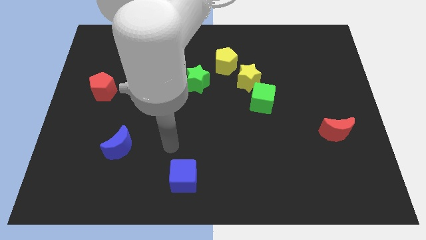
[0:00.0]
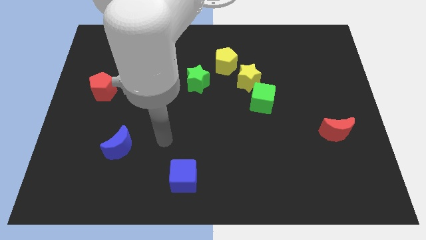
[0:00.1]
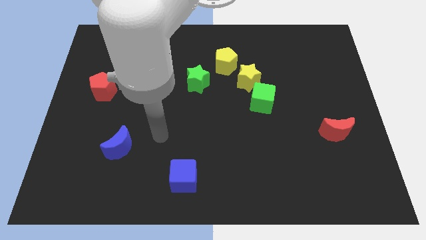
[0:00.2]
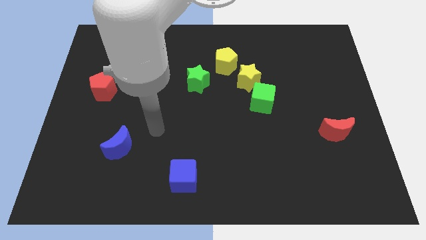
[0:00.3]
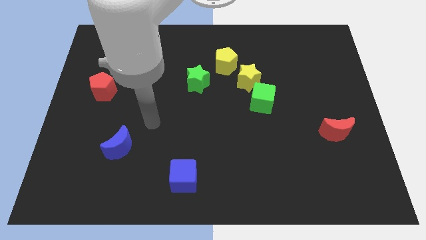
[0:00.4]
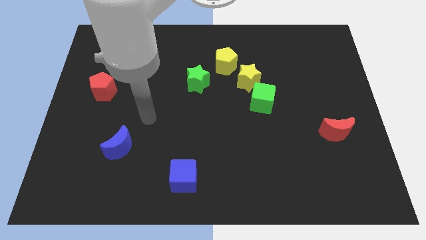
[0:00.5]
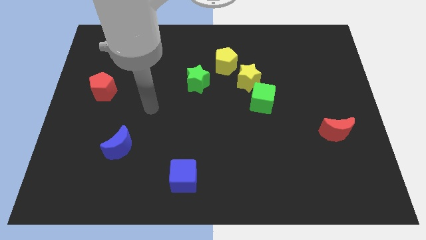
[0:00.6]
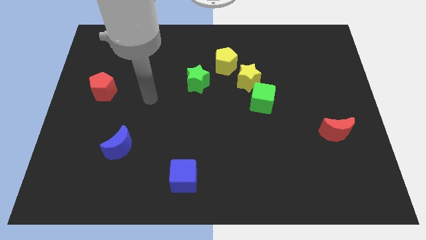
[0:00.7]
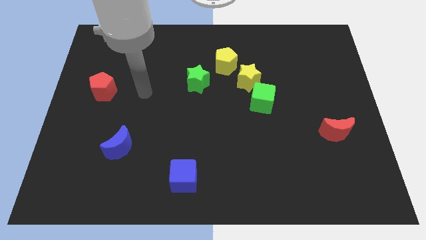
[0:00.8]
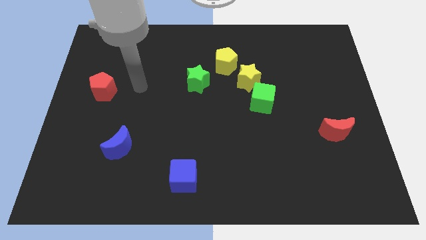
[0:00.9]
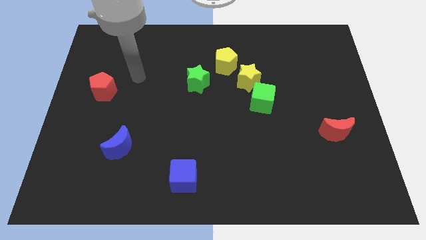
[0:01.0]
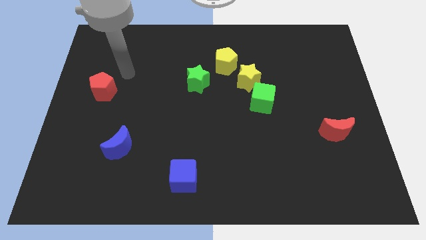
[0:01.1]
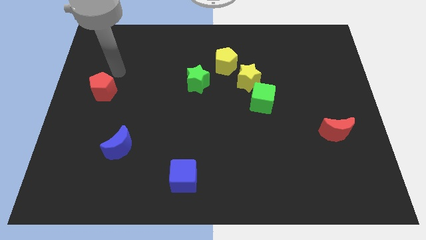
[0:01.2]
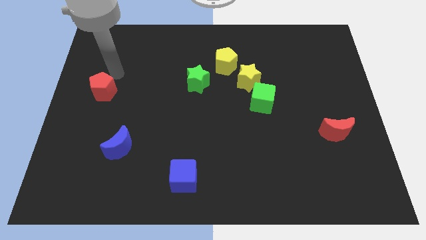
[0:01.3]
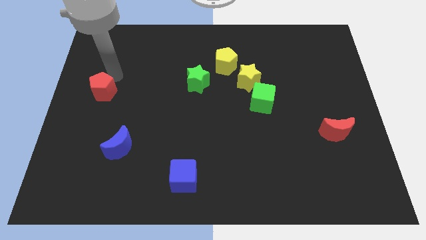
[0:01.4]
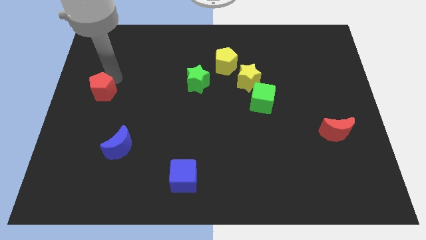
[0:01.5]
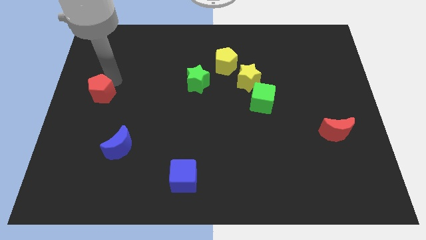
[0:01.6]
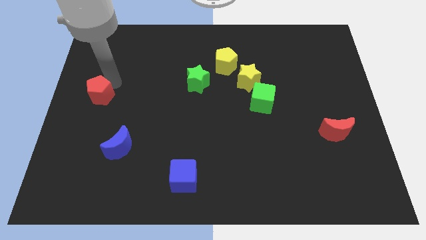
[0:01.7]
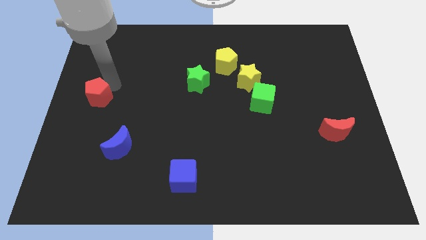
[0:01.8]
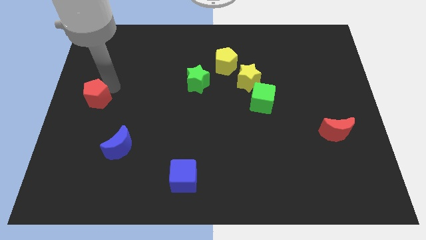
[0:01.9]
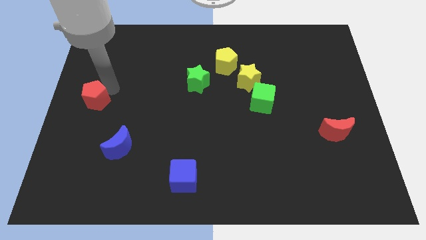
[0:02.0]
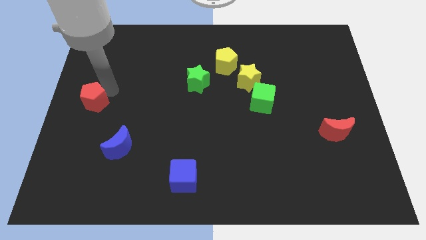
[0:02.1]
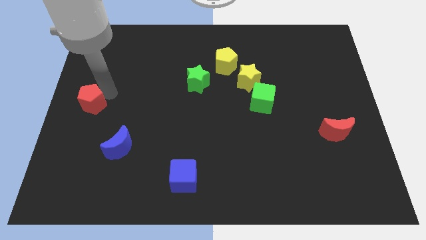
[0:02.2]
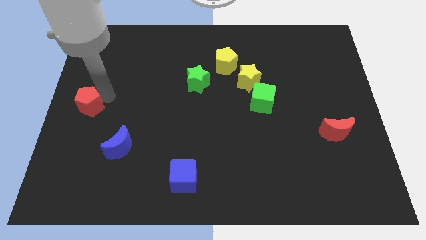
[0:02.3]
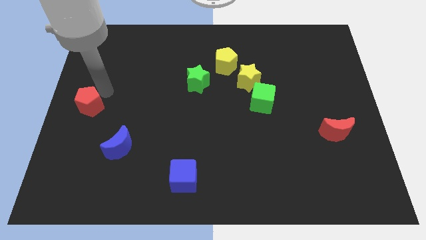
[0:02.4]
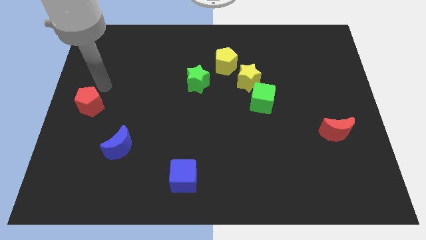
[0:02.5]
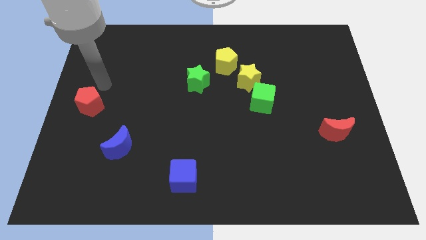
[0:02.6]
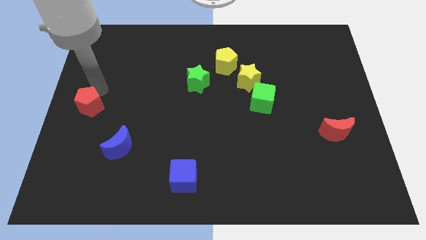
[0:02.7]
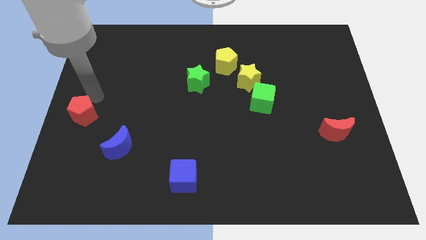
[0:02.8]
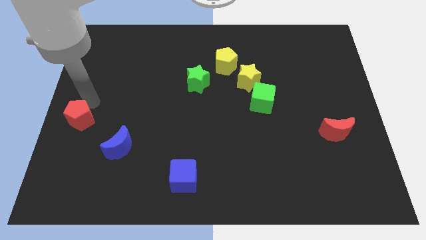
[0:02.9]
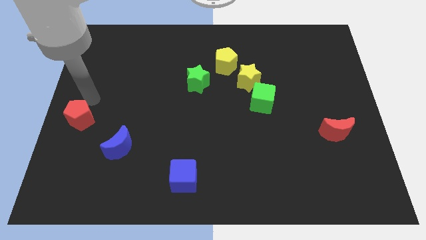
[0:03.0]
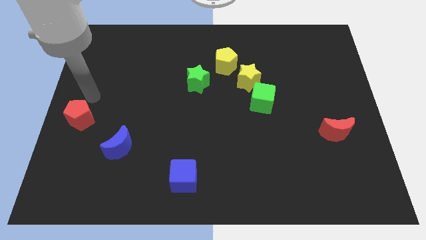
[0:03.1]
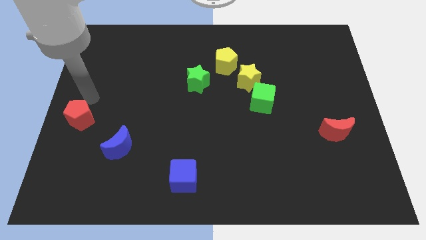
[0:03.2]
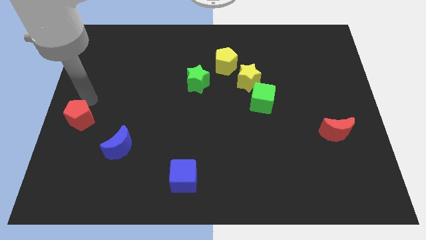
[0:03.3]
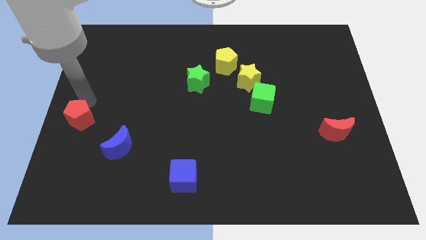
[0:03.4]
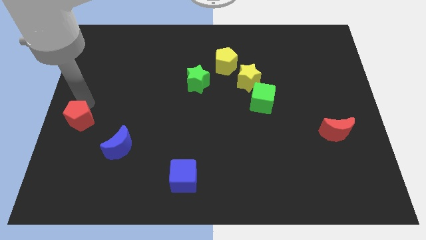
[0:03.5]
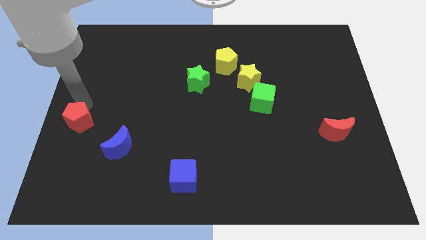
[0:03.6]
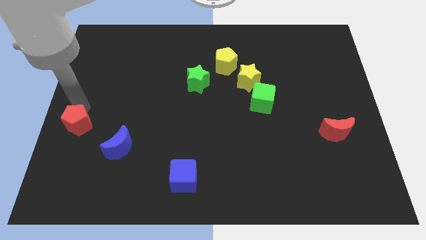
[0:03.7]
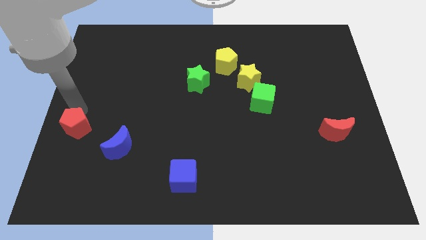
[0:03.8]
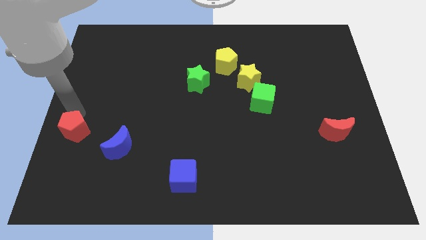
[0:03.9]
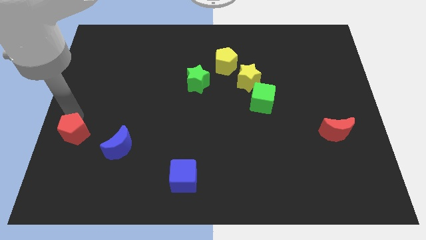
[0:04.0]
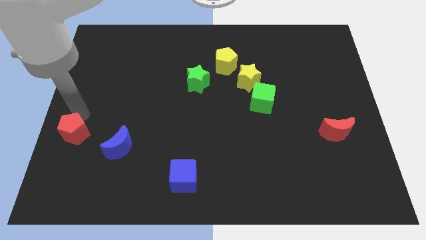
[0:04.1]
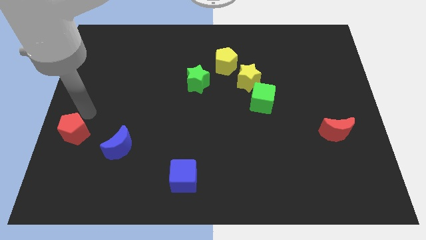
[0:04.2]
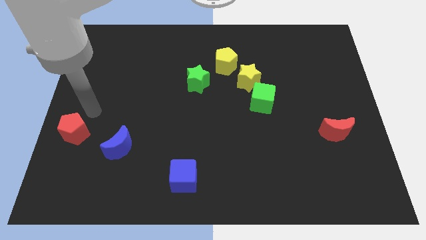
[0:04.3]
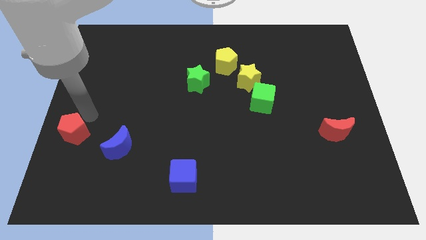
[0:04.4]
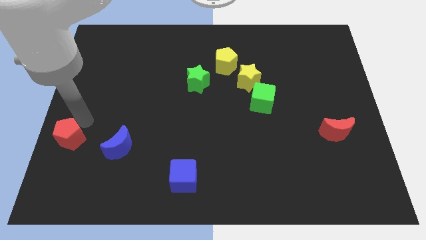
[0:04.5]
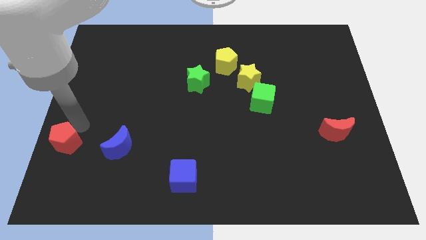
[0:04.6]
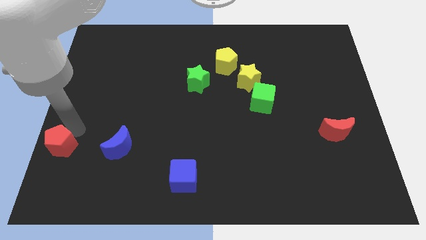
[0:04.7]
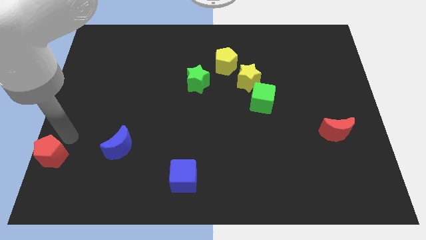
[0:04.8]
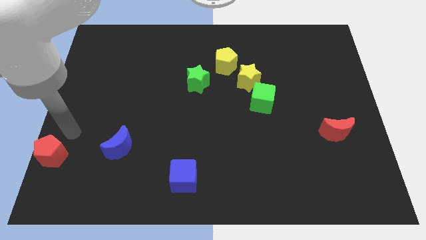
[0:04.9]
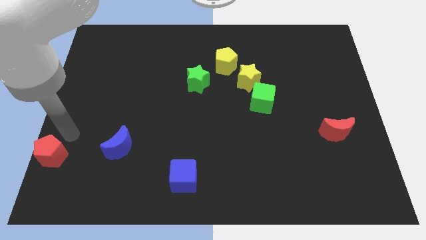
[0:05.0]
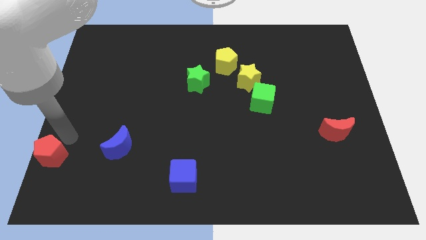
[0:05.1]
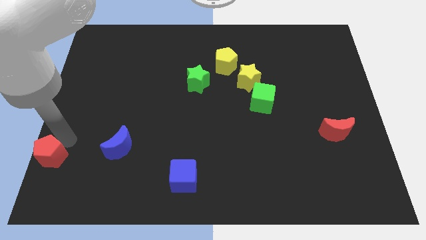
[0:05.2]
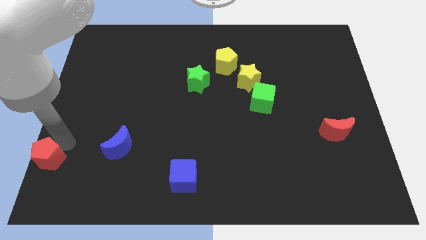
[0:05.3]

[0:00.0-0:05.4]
put the red pentagon to the lower left corner
